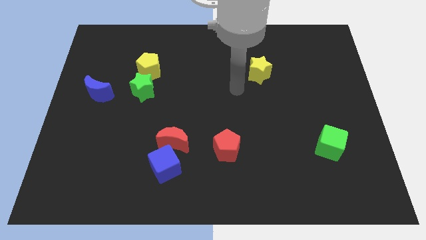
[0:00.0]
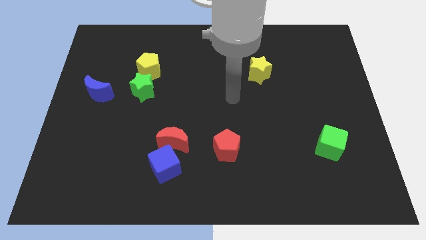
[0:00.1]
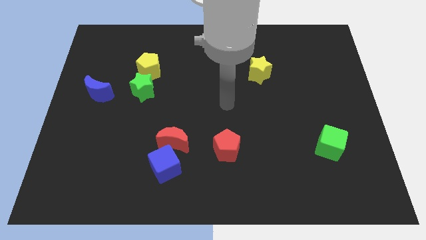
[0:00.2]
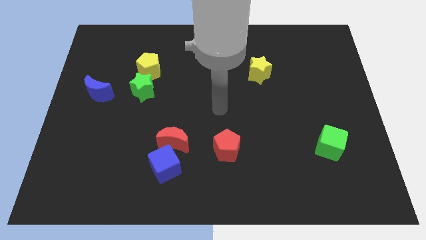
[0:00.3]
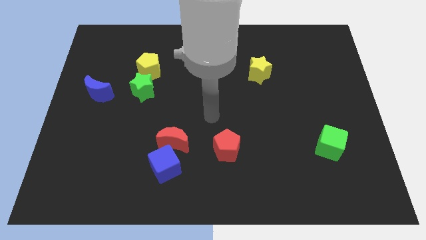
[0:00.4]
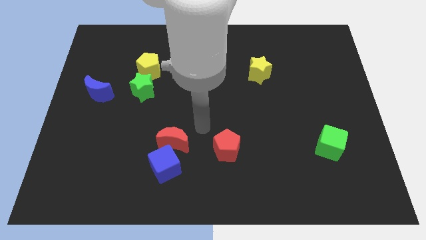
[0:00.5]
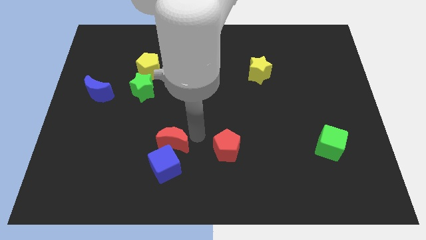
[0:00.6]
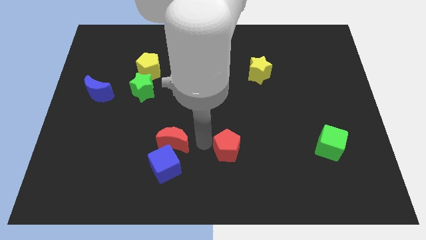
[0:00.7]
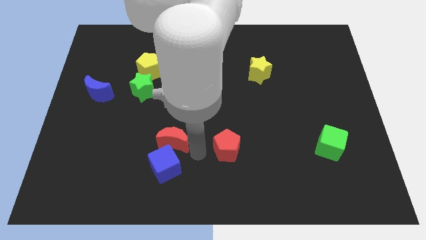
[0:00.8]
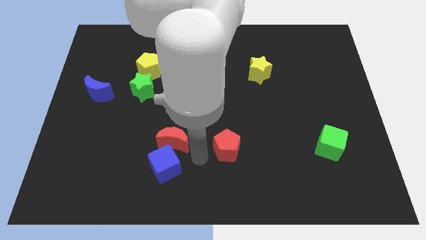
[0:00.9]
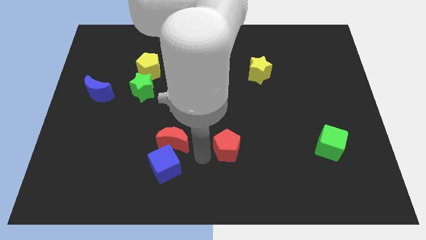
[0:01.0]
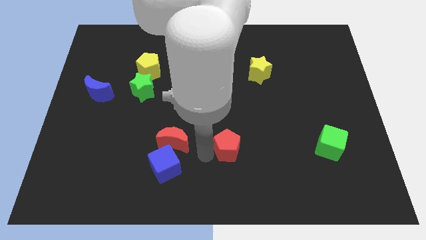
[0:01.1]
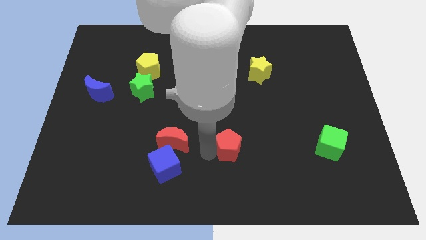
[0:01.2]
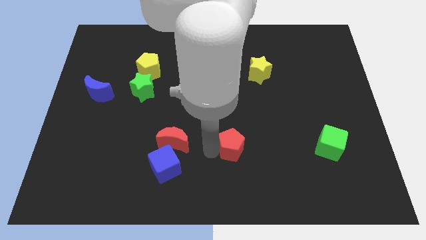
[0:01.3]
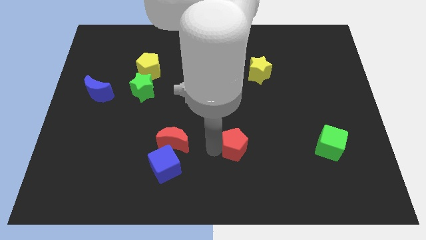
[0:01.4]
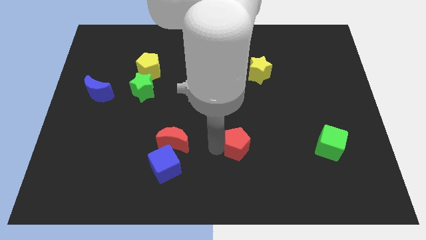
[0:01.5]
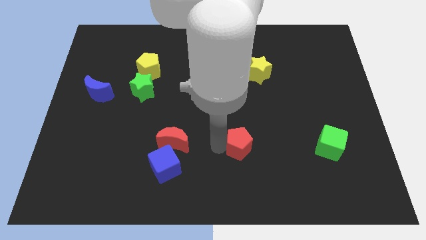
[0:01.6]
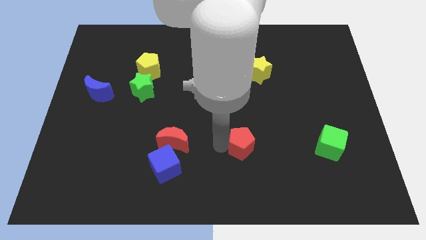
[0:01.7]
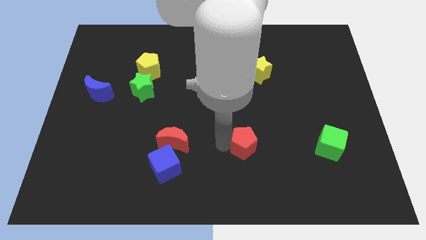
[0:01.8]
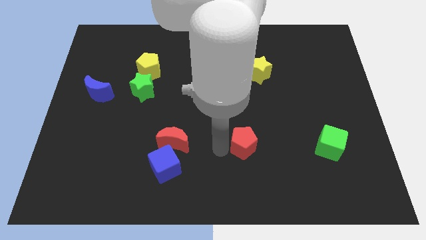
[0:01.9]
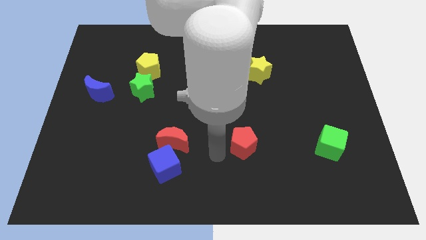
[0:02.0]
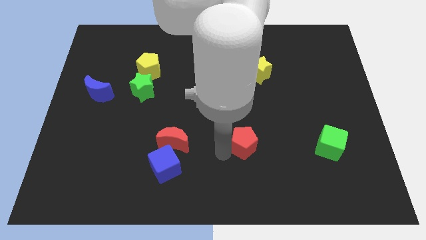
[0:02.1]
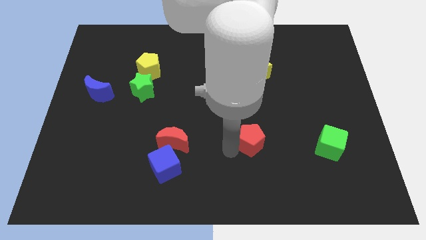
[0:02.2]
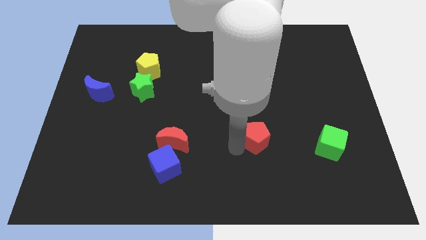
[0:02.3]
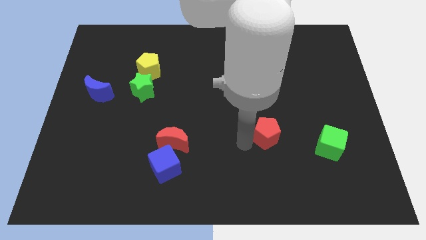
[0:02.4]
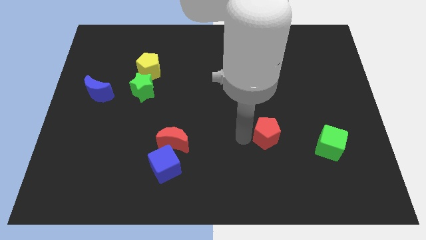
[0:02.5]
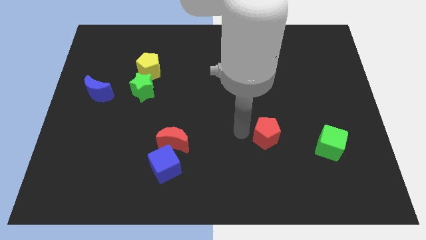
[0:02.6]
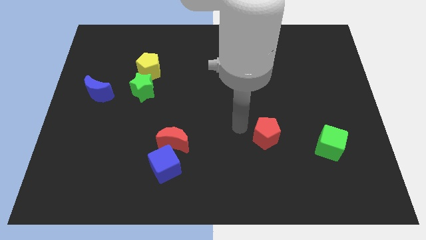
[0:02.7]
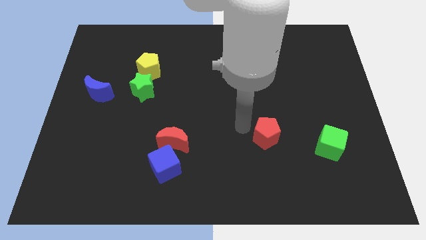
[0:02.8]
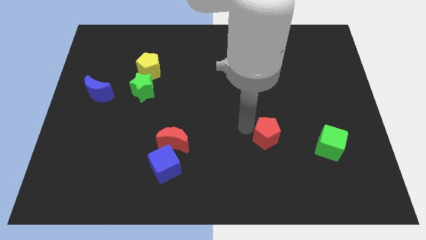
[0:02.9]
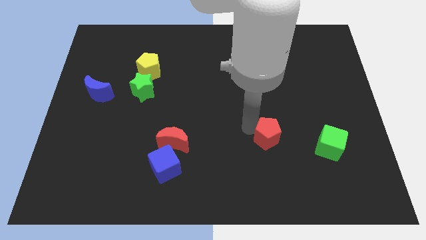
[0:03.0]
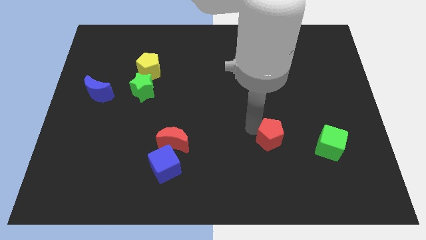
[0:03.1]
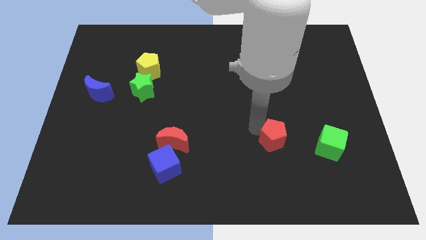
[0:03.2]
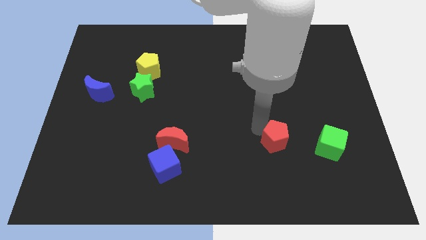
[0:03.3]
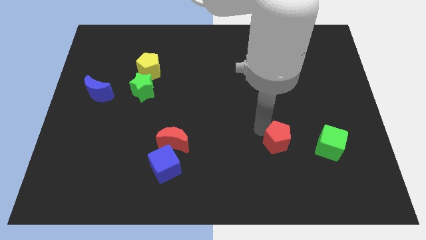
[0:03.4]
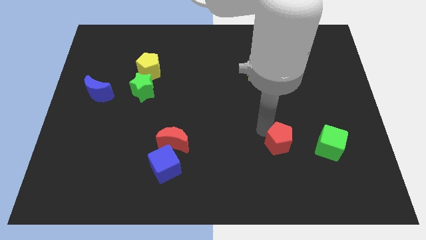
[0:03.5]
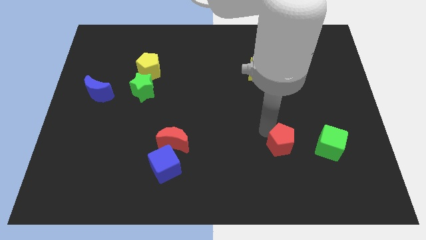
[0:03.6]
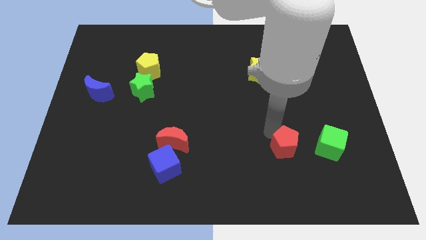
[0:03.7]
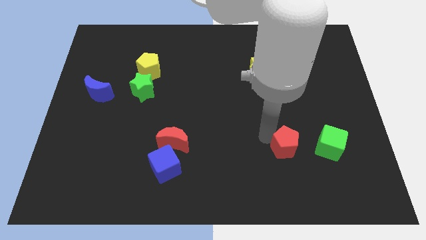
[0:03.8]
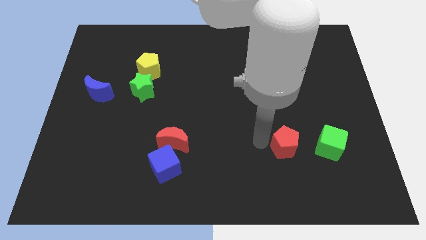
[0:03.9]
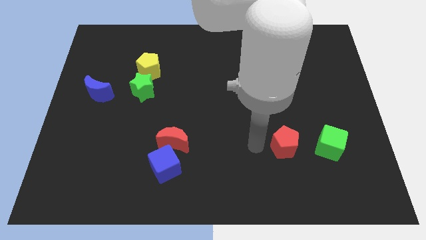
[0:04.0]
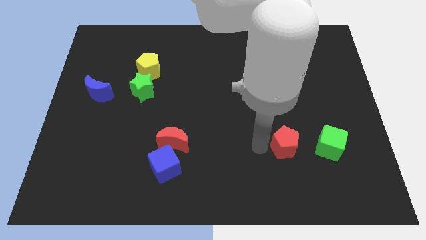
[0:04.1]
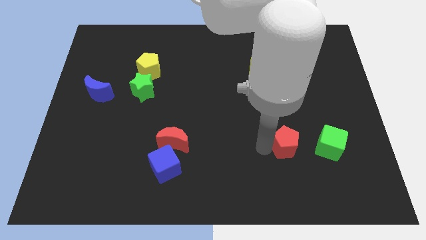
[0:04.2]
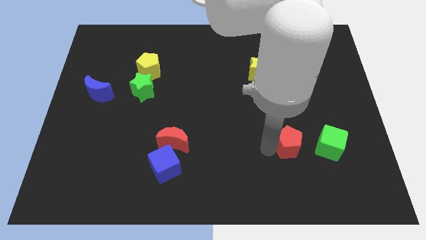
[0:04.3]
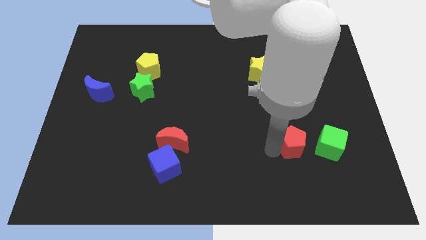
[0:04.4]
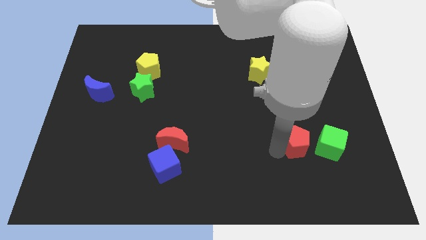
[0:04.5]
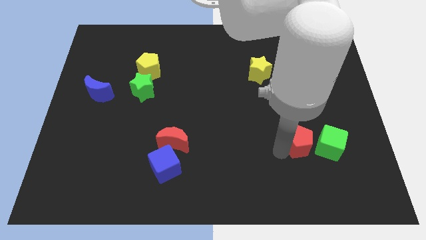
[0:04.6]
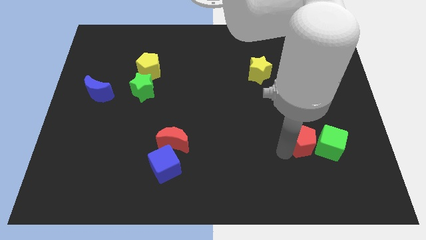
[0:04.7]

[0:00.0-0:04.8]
put the red pentagon to the green cube

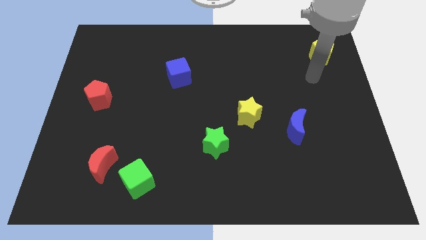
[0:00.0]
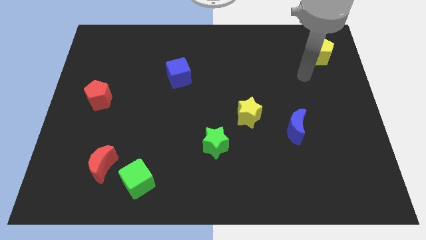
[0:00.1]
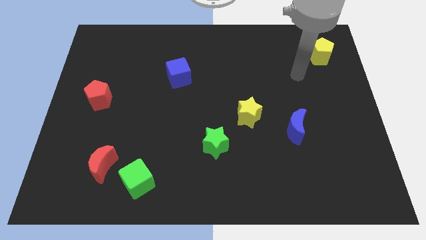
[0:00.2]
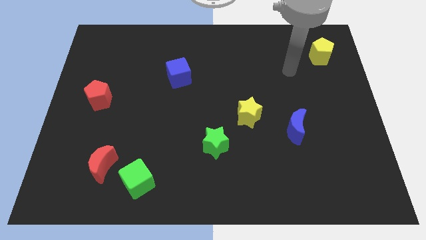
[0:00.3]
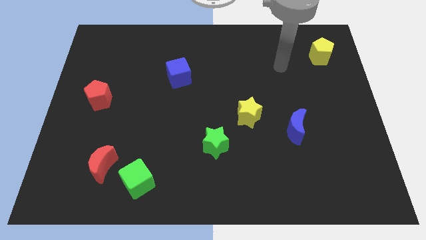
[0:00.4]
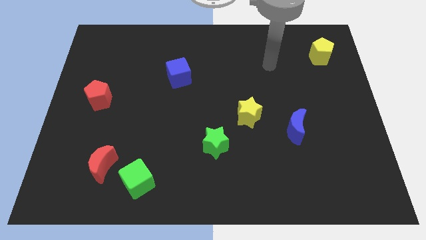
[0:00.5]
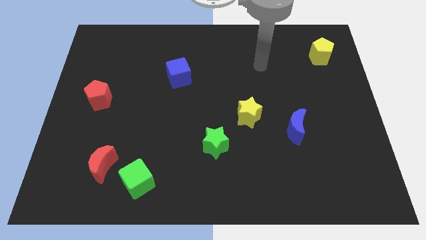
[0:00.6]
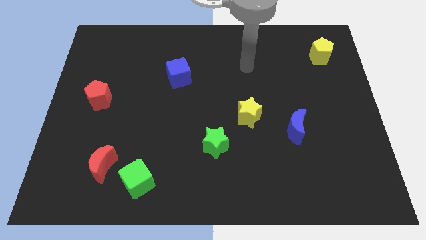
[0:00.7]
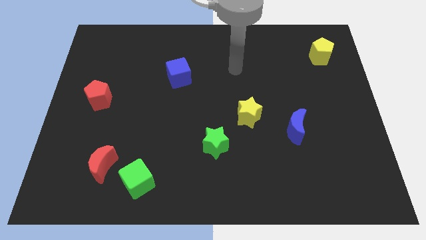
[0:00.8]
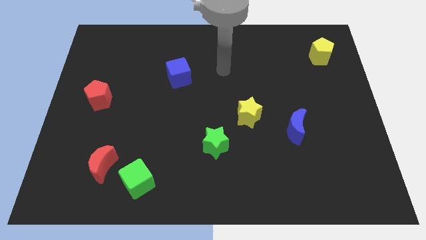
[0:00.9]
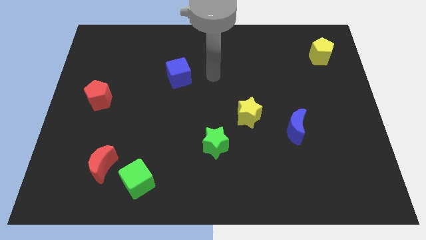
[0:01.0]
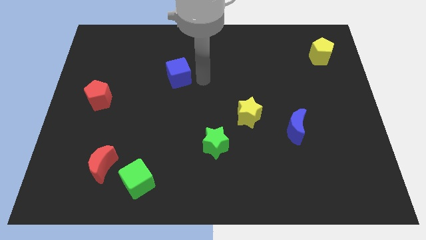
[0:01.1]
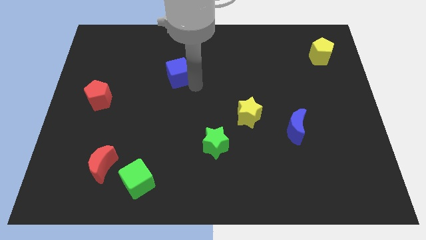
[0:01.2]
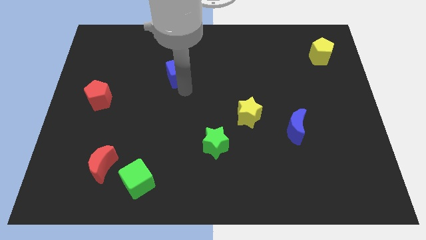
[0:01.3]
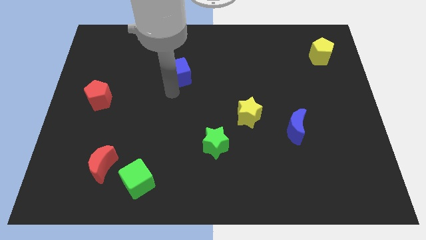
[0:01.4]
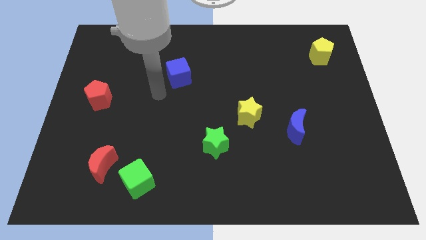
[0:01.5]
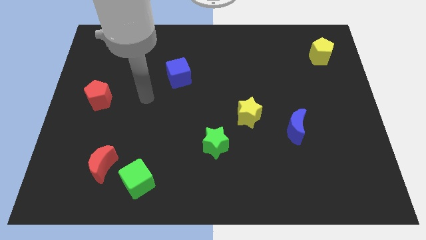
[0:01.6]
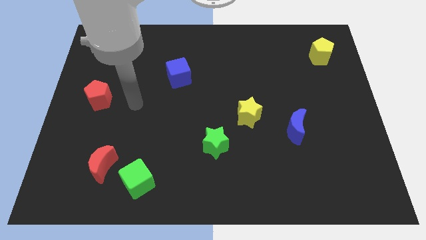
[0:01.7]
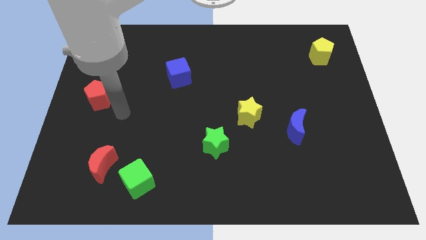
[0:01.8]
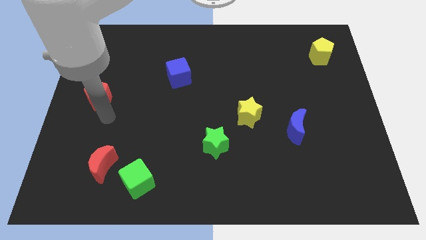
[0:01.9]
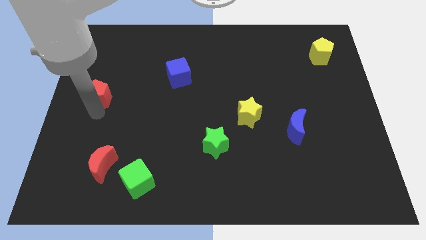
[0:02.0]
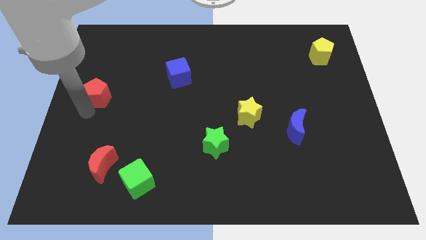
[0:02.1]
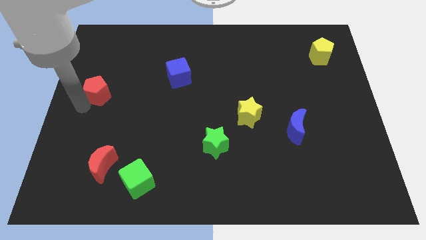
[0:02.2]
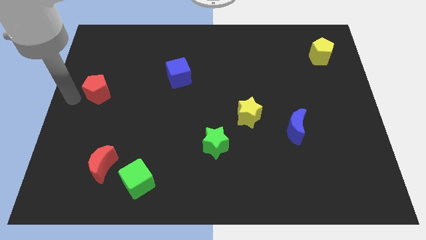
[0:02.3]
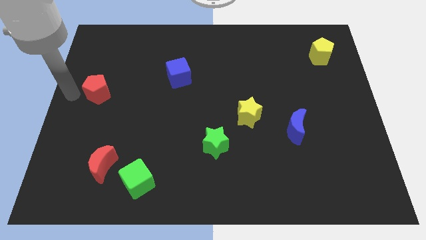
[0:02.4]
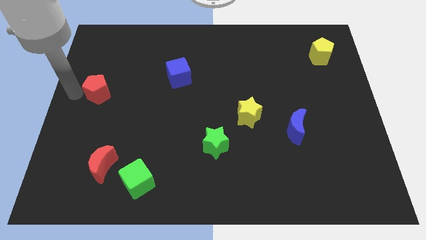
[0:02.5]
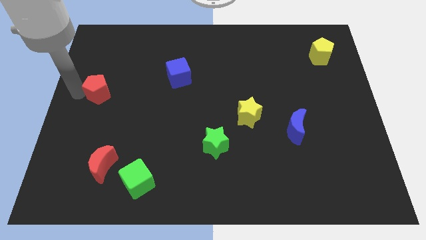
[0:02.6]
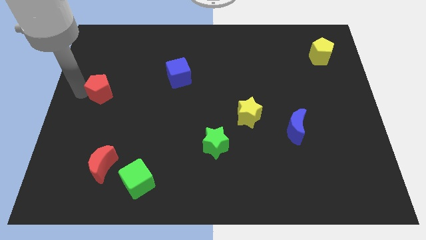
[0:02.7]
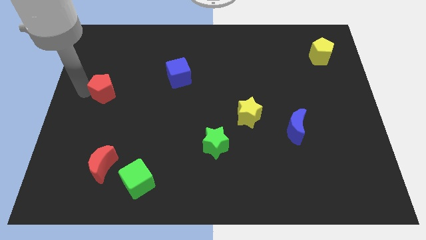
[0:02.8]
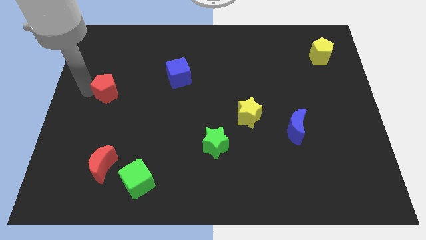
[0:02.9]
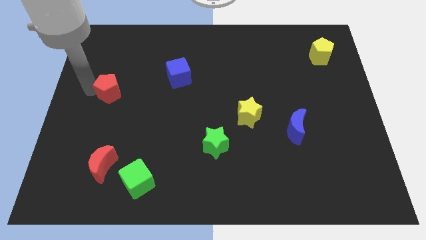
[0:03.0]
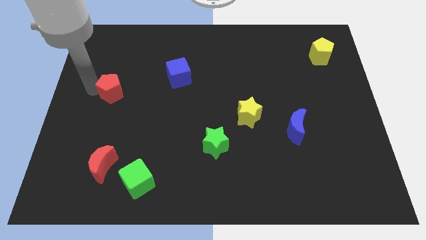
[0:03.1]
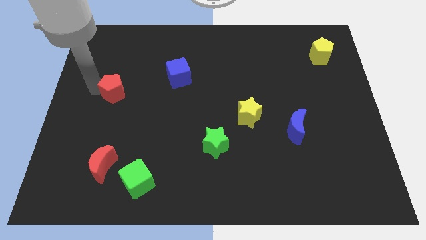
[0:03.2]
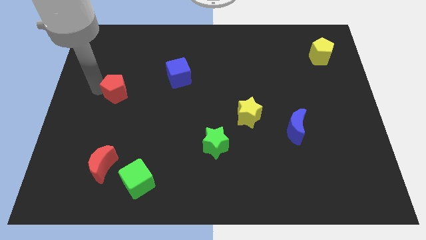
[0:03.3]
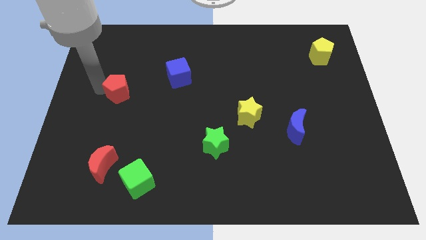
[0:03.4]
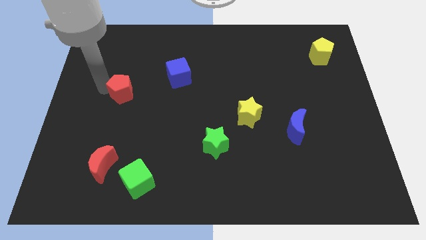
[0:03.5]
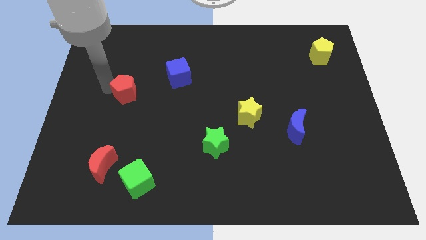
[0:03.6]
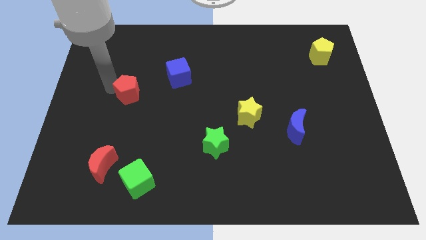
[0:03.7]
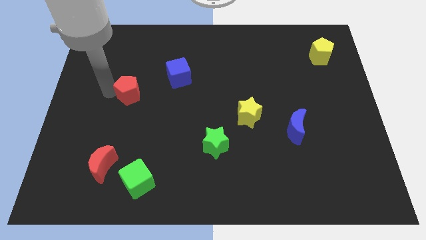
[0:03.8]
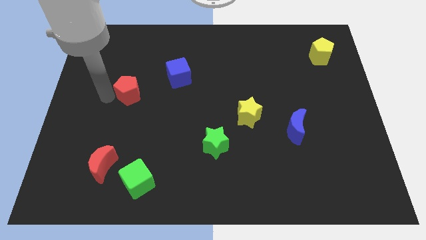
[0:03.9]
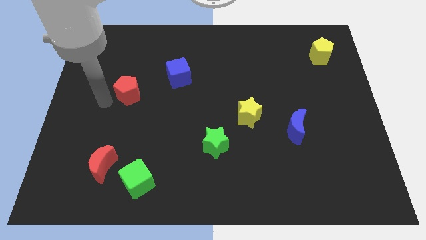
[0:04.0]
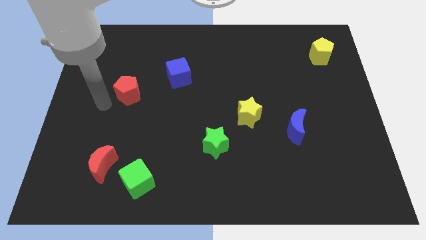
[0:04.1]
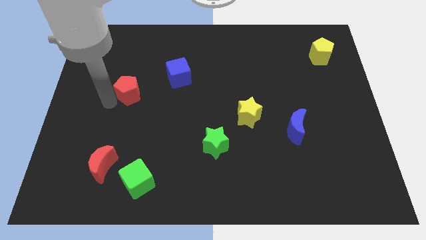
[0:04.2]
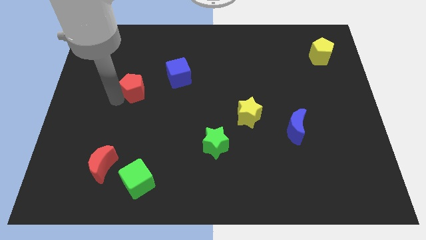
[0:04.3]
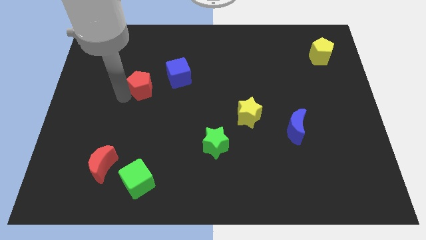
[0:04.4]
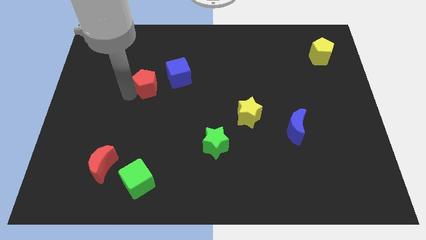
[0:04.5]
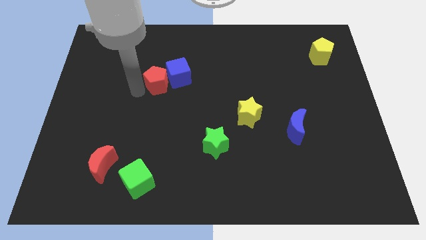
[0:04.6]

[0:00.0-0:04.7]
slide the red pentagon close to the blue cube
